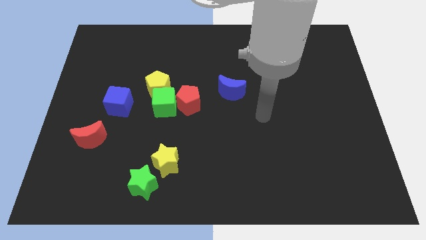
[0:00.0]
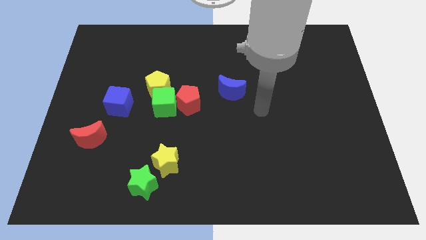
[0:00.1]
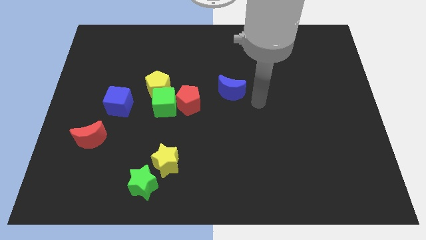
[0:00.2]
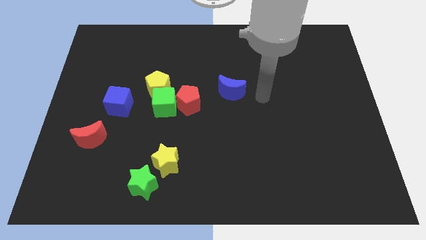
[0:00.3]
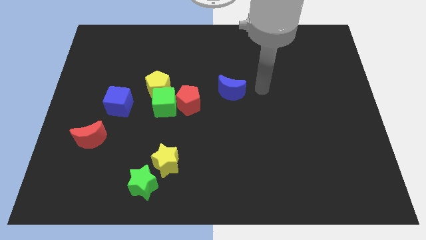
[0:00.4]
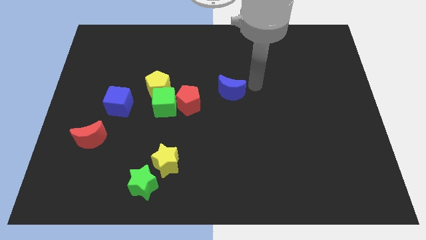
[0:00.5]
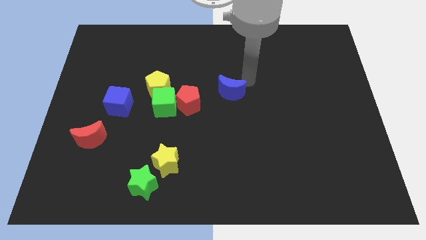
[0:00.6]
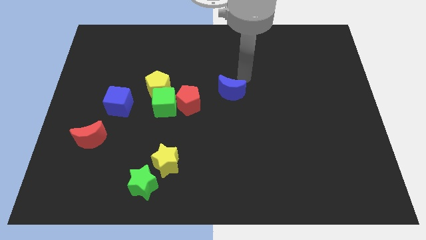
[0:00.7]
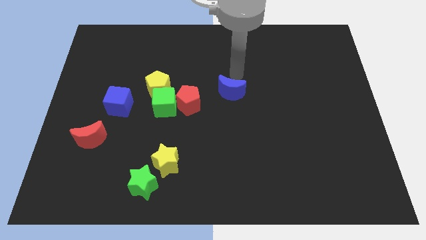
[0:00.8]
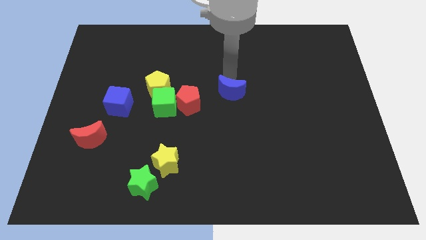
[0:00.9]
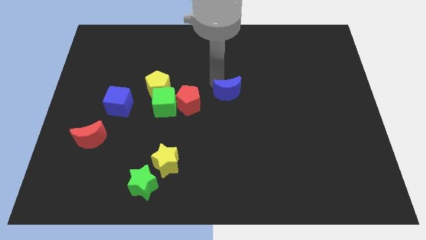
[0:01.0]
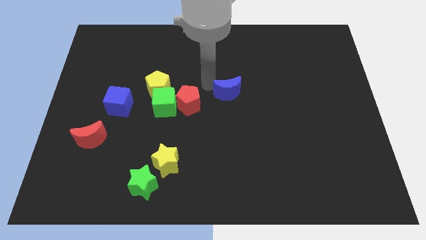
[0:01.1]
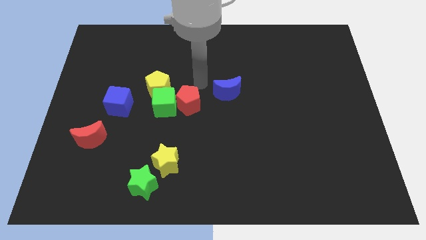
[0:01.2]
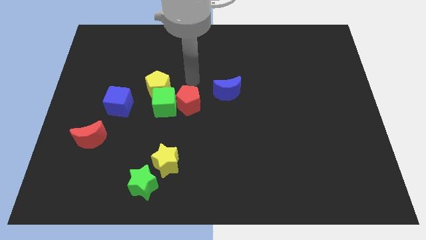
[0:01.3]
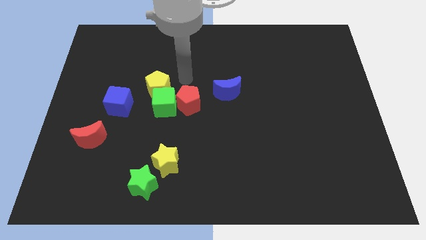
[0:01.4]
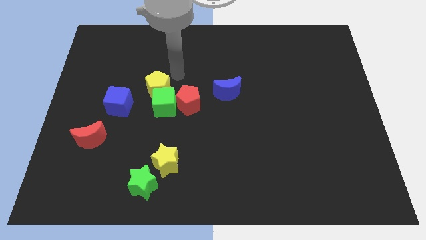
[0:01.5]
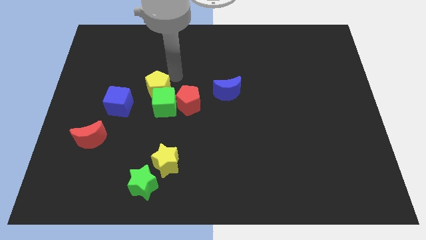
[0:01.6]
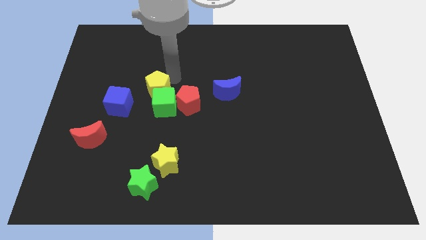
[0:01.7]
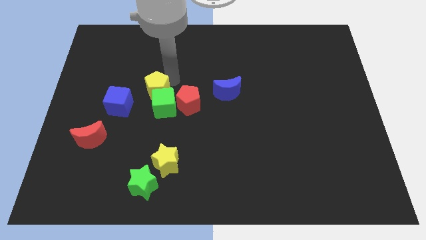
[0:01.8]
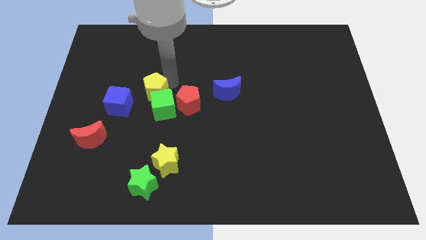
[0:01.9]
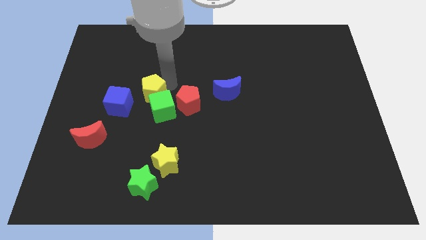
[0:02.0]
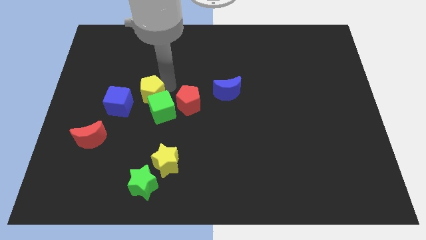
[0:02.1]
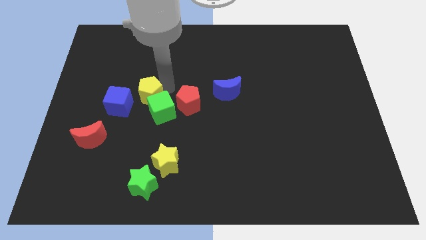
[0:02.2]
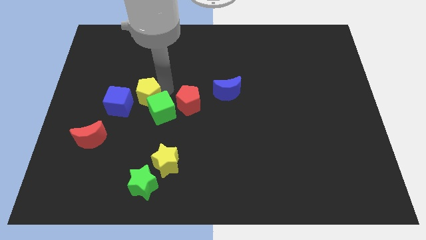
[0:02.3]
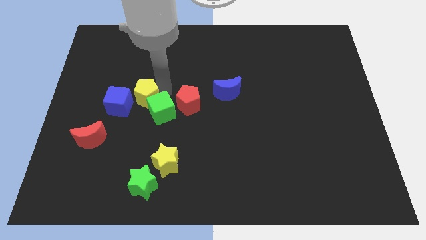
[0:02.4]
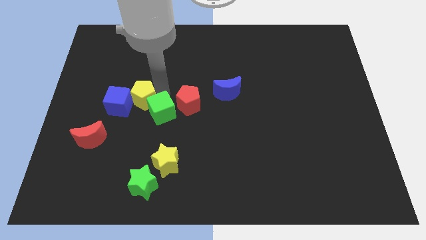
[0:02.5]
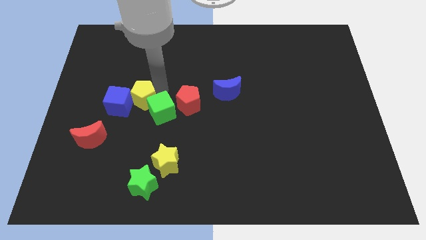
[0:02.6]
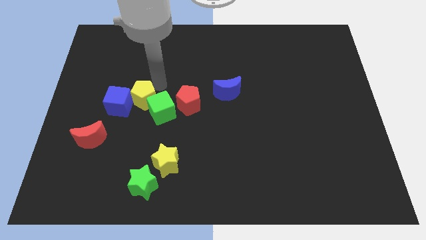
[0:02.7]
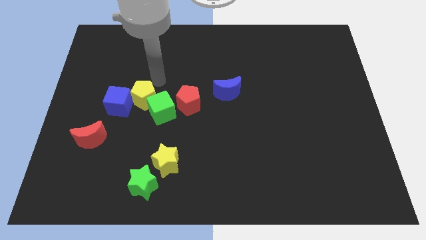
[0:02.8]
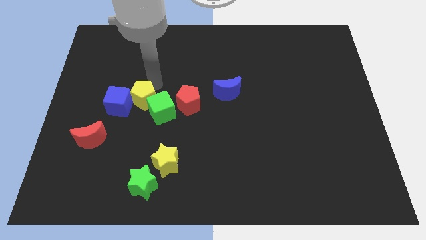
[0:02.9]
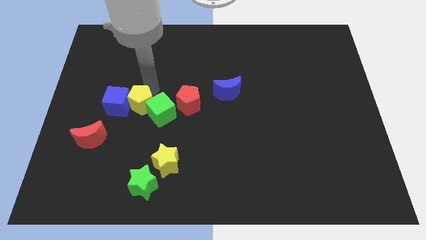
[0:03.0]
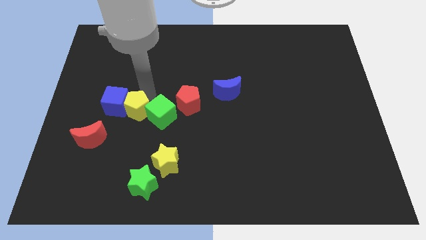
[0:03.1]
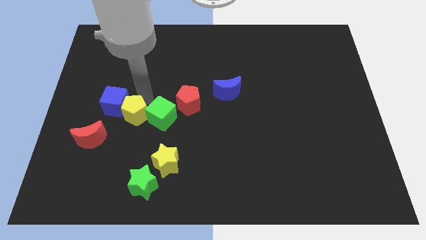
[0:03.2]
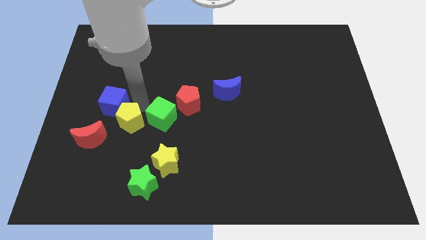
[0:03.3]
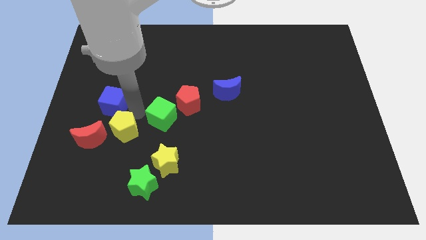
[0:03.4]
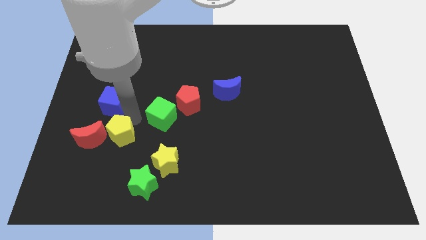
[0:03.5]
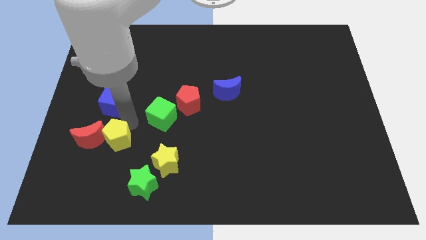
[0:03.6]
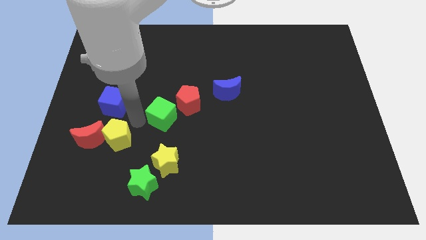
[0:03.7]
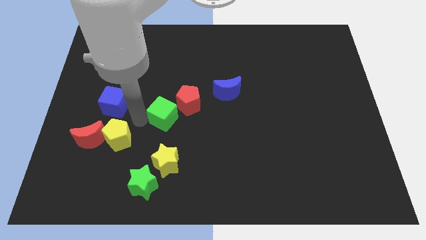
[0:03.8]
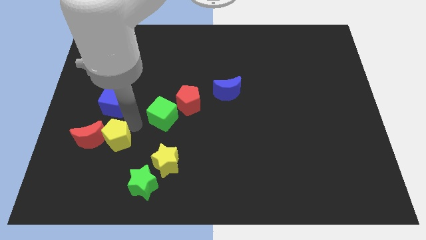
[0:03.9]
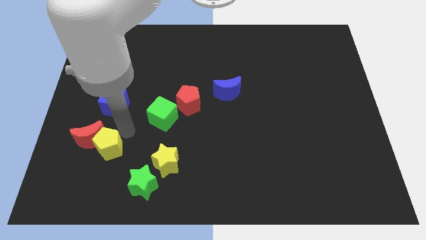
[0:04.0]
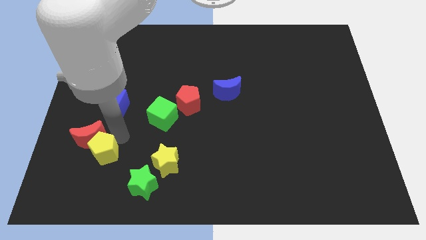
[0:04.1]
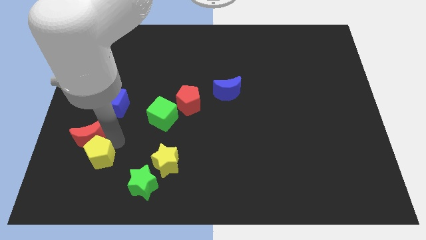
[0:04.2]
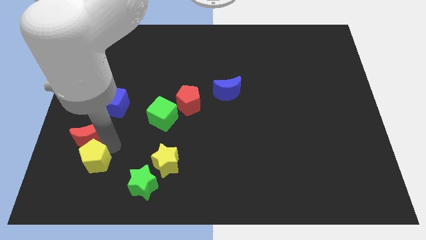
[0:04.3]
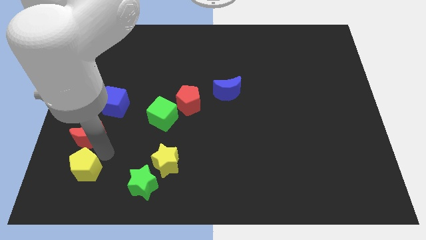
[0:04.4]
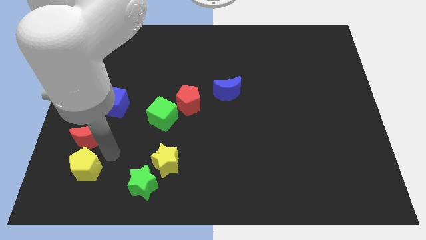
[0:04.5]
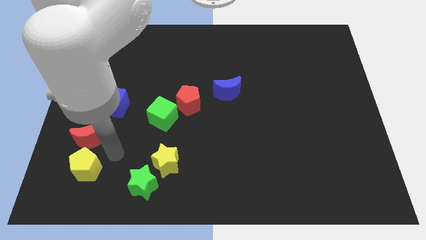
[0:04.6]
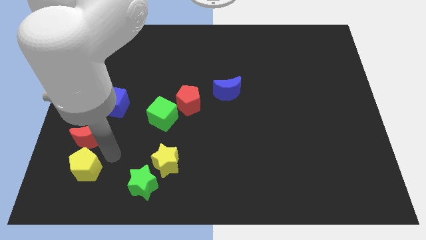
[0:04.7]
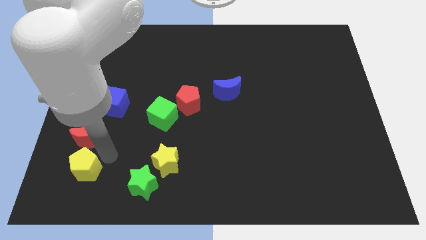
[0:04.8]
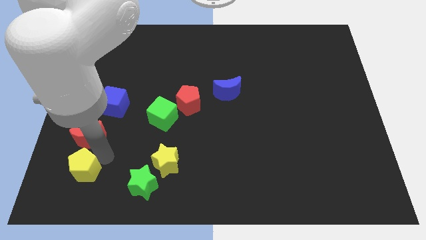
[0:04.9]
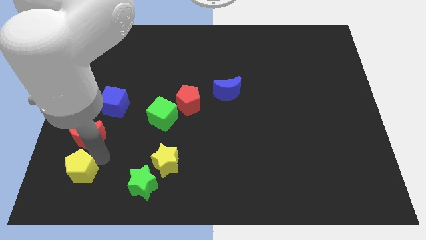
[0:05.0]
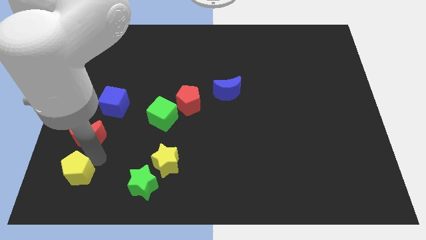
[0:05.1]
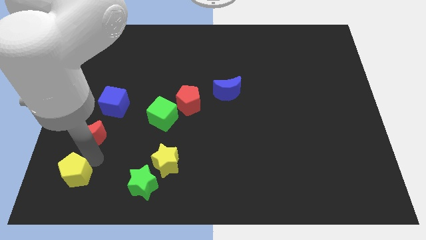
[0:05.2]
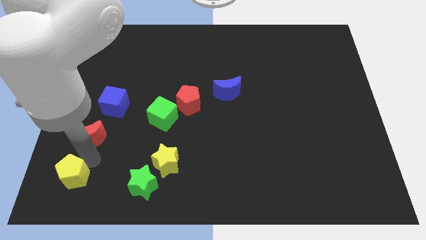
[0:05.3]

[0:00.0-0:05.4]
move the yellow pentagon to the bottom left of the board

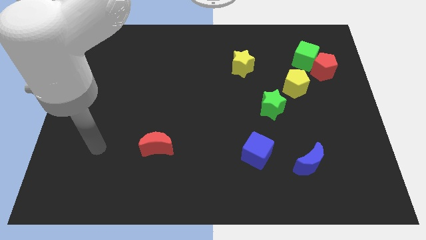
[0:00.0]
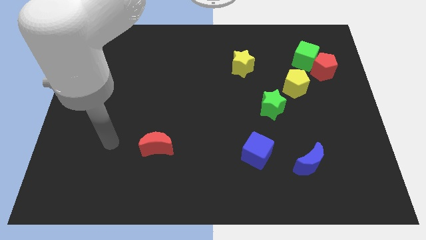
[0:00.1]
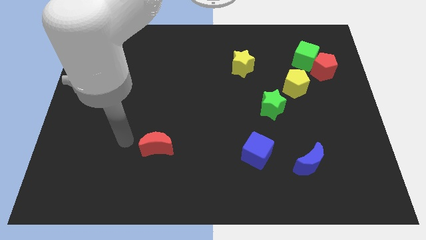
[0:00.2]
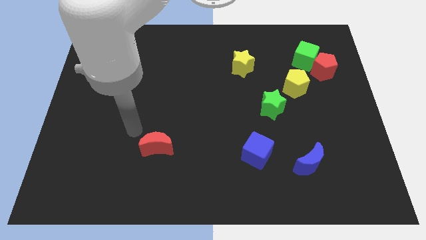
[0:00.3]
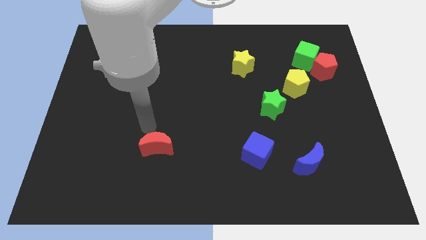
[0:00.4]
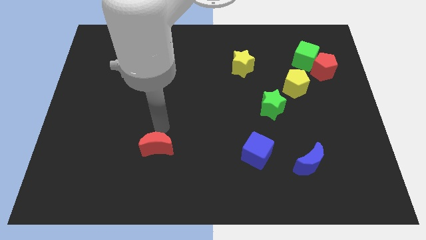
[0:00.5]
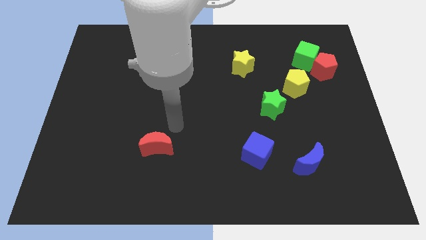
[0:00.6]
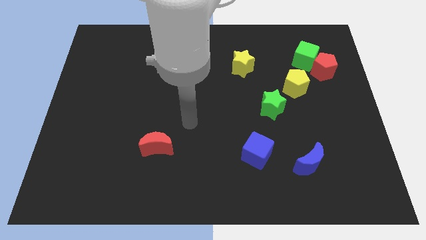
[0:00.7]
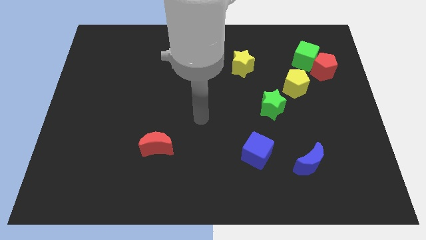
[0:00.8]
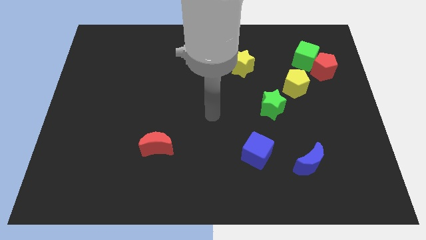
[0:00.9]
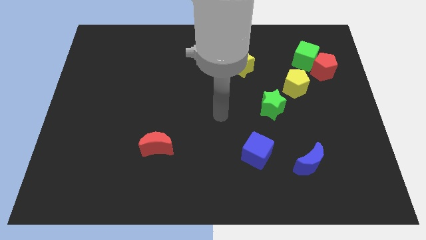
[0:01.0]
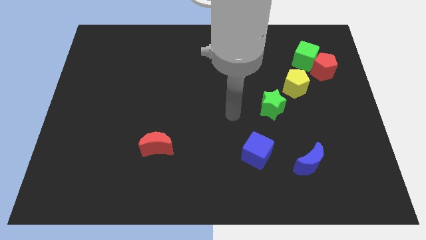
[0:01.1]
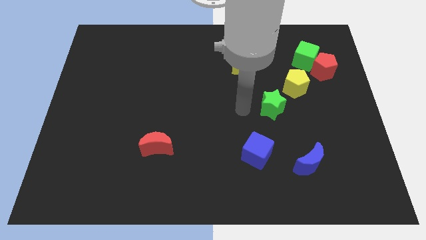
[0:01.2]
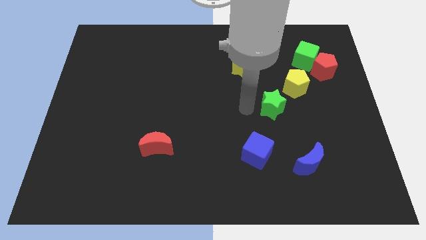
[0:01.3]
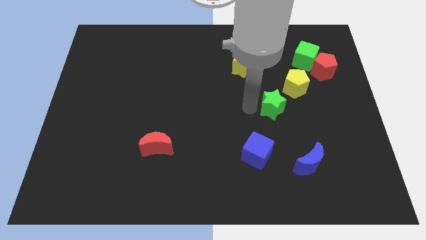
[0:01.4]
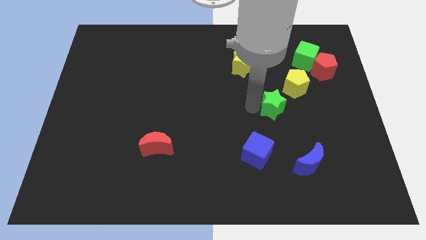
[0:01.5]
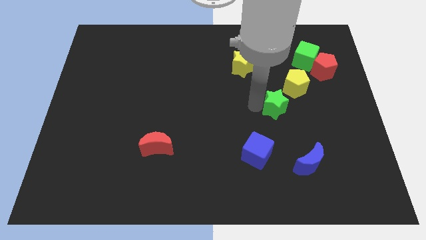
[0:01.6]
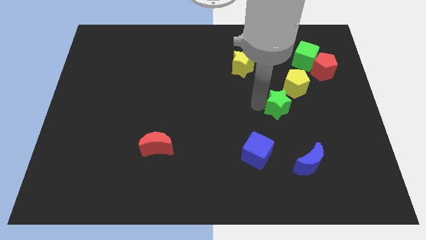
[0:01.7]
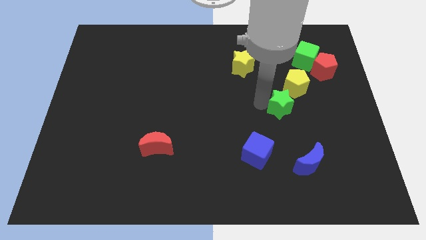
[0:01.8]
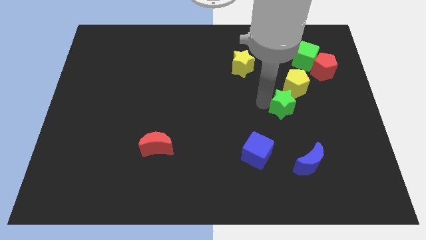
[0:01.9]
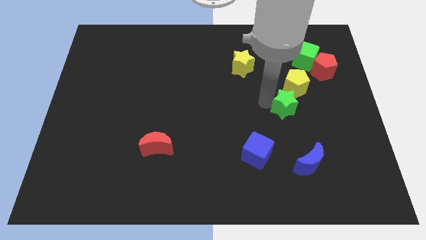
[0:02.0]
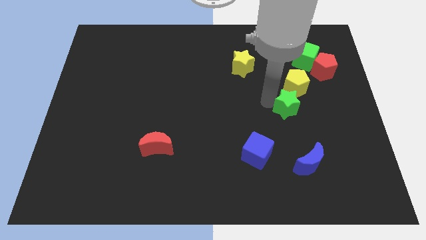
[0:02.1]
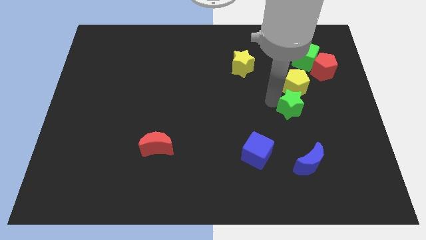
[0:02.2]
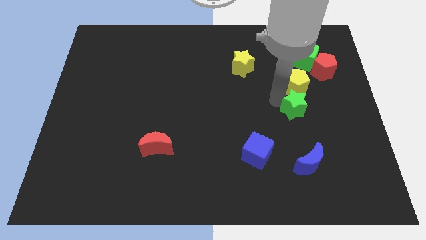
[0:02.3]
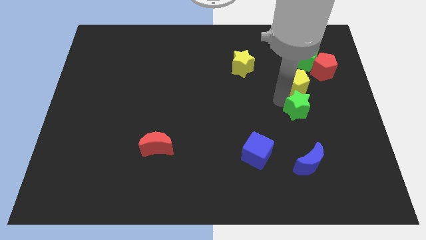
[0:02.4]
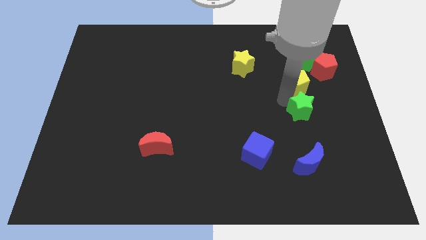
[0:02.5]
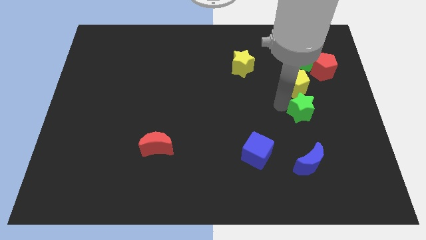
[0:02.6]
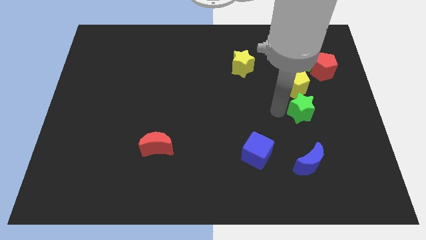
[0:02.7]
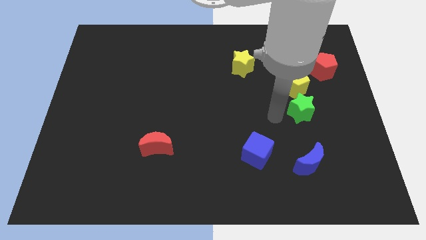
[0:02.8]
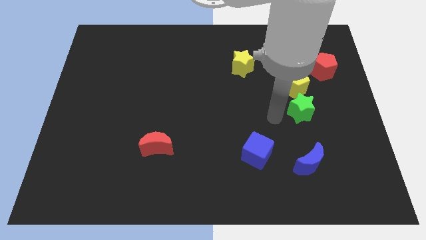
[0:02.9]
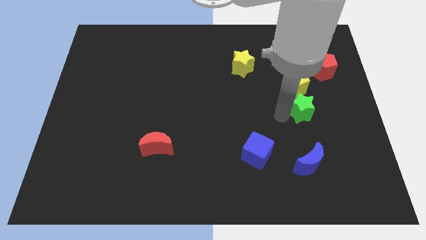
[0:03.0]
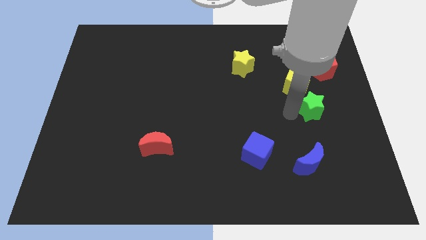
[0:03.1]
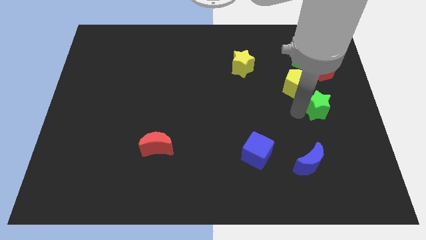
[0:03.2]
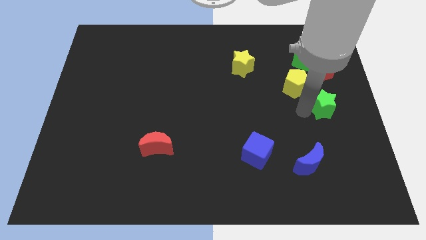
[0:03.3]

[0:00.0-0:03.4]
move the green star to the center right
